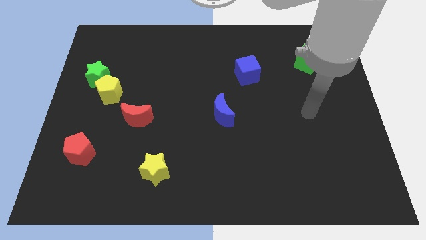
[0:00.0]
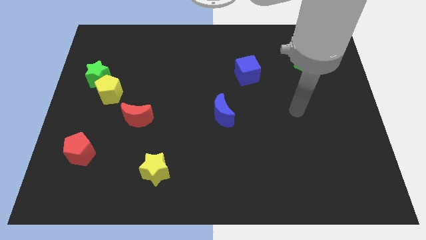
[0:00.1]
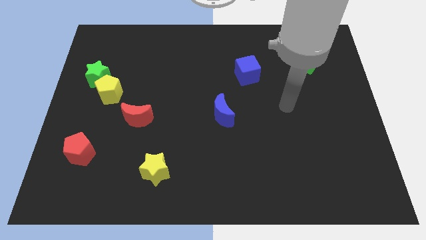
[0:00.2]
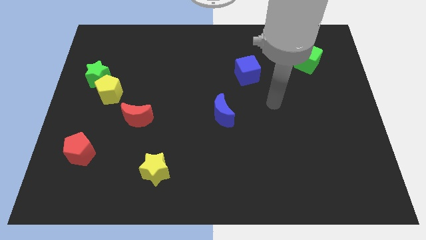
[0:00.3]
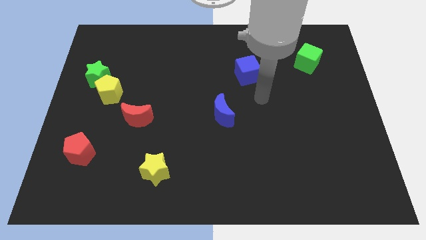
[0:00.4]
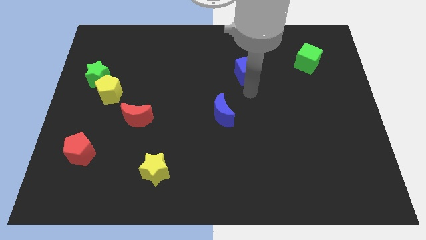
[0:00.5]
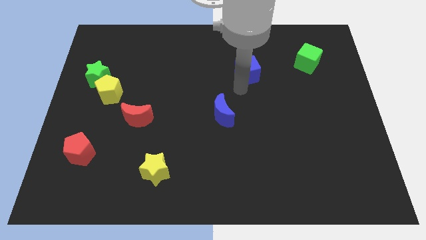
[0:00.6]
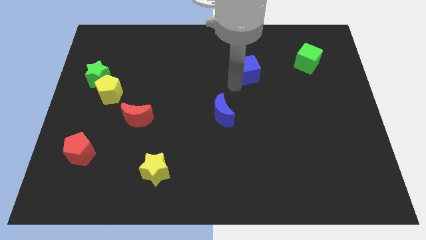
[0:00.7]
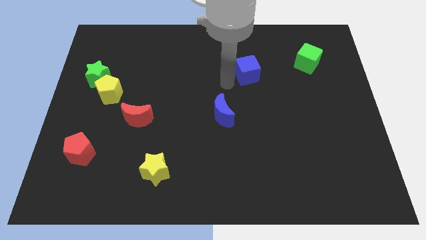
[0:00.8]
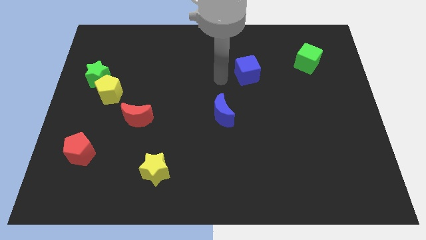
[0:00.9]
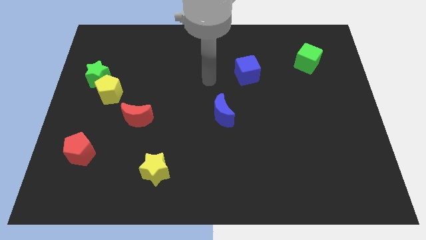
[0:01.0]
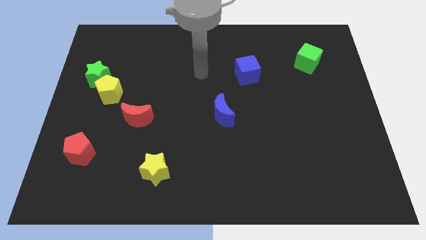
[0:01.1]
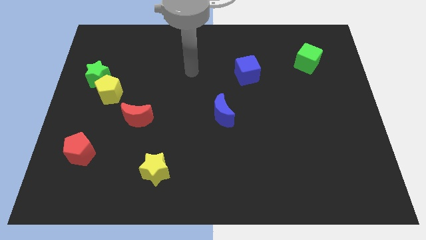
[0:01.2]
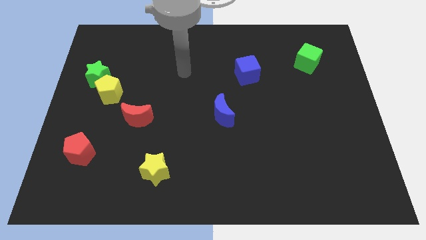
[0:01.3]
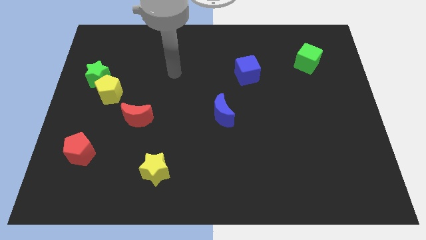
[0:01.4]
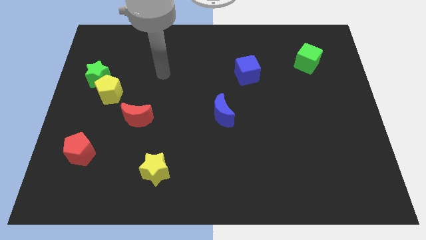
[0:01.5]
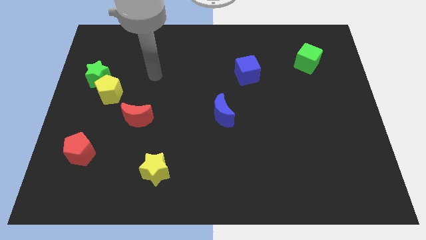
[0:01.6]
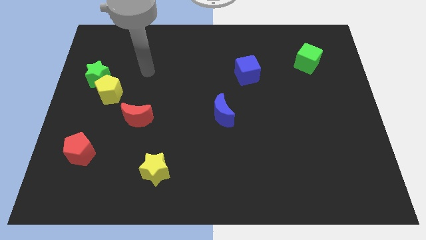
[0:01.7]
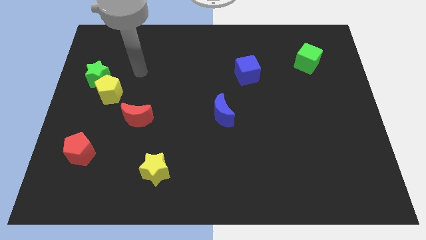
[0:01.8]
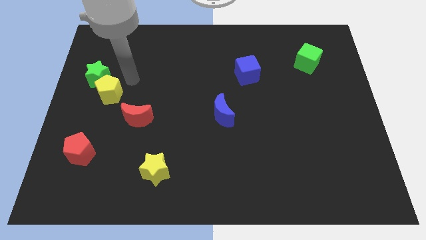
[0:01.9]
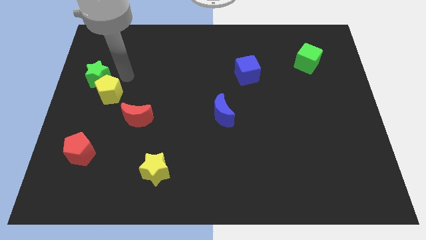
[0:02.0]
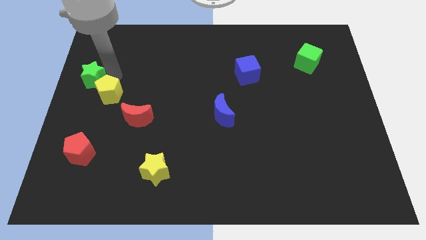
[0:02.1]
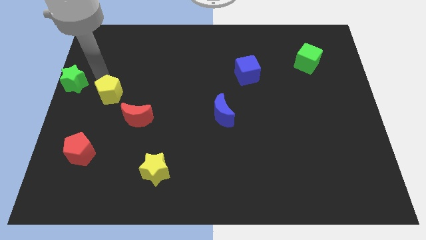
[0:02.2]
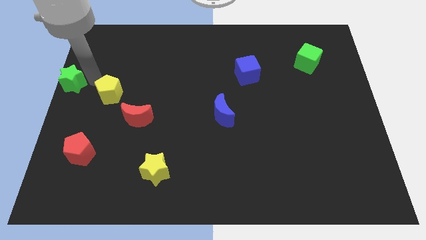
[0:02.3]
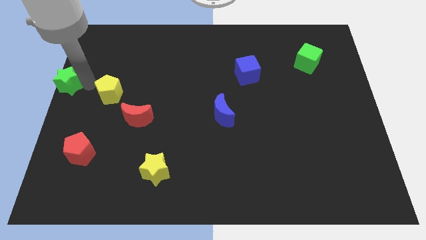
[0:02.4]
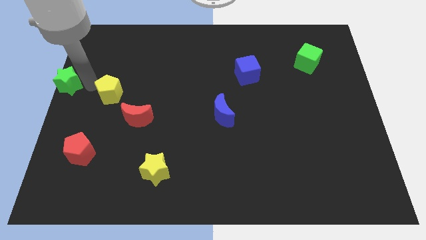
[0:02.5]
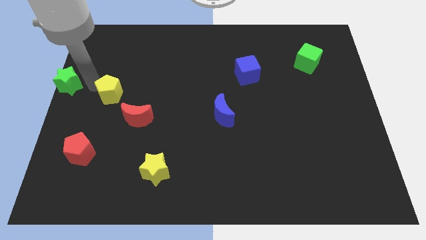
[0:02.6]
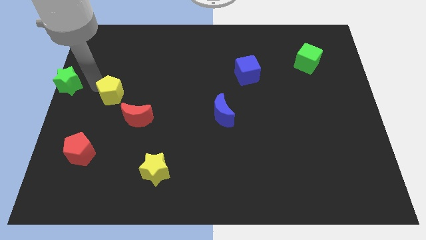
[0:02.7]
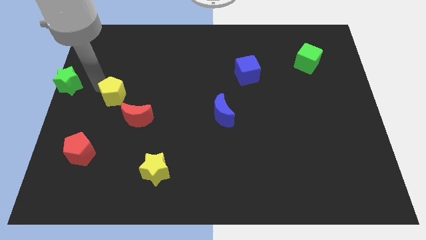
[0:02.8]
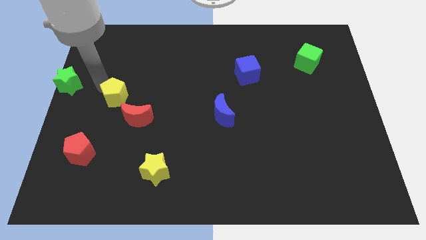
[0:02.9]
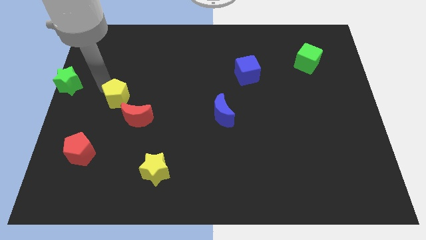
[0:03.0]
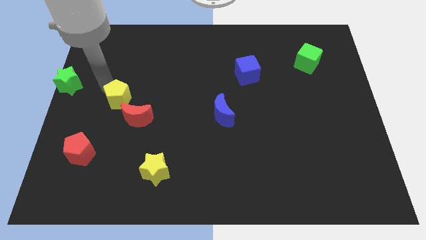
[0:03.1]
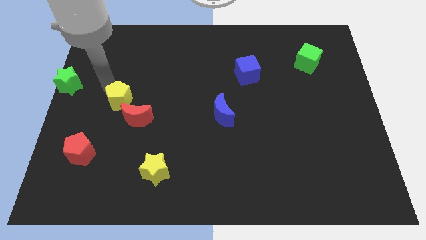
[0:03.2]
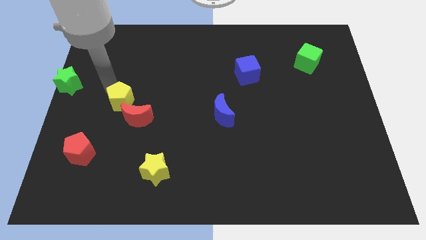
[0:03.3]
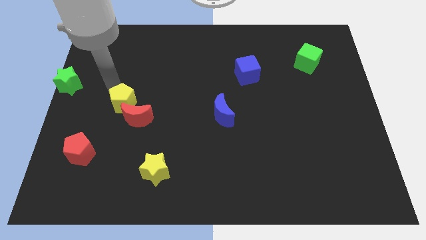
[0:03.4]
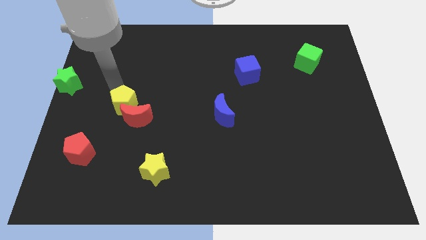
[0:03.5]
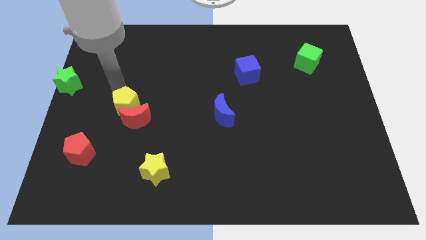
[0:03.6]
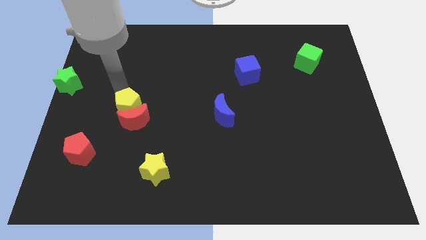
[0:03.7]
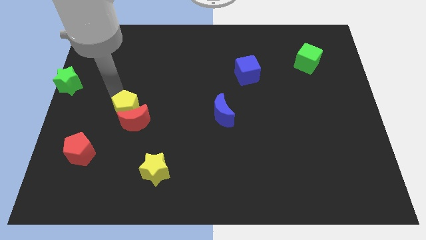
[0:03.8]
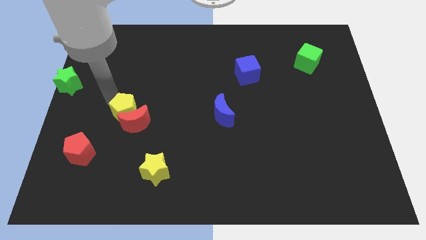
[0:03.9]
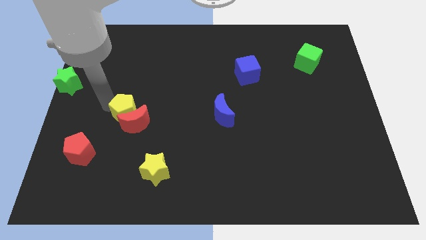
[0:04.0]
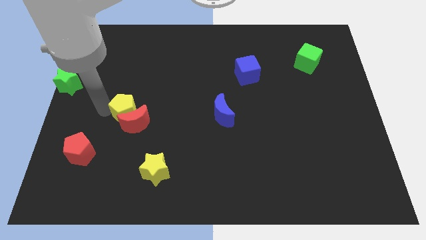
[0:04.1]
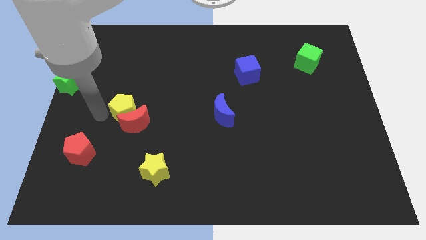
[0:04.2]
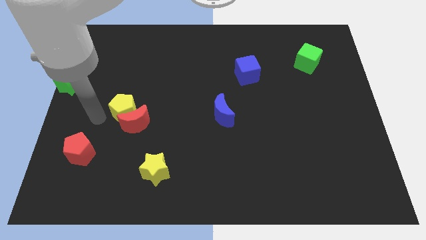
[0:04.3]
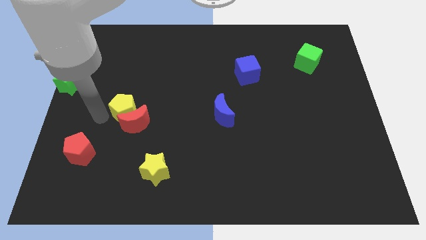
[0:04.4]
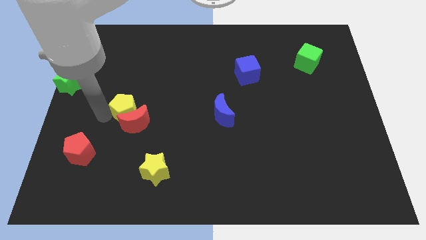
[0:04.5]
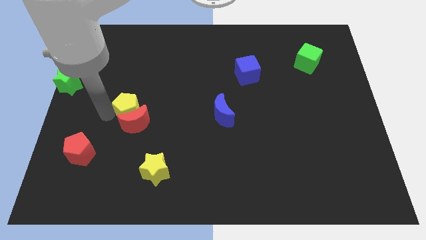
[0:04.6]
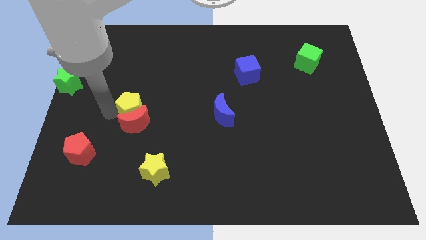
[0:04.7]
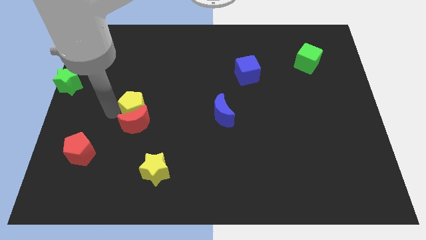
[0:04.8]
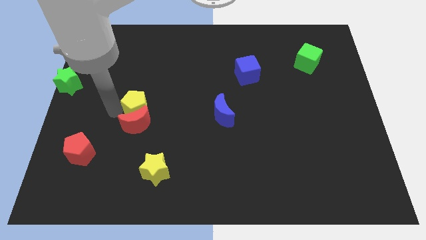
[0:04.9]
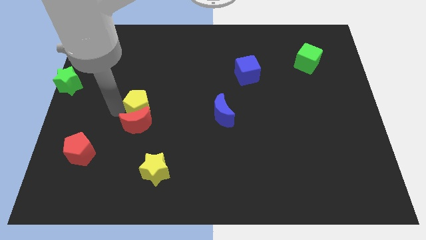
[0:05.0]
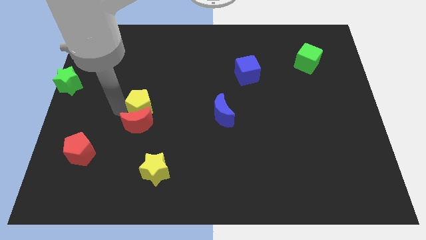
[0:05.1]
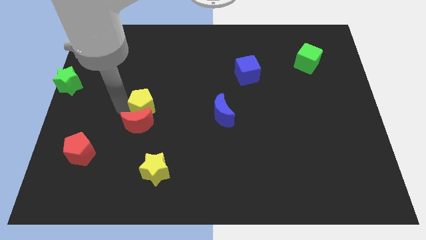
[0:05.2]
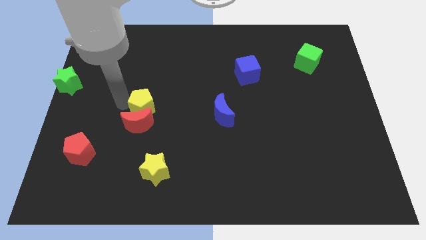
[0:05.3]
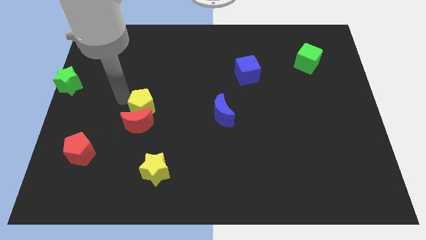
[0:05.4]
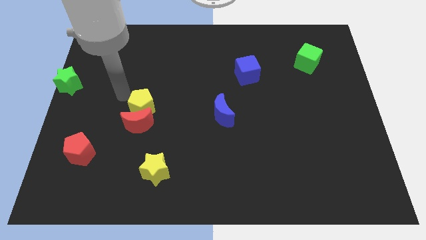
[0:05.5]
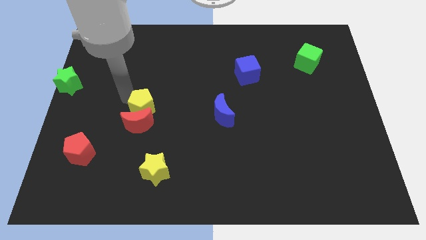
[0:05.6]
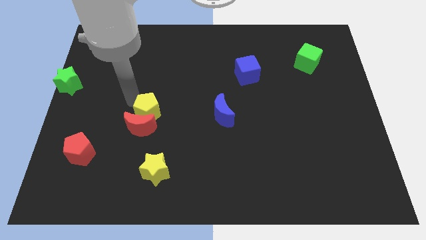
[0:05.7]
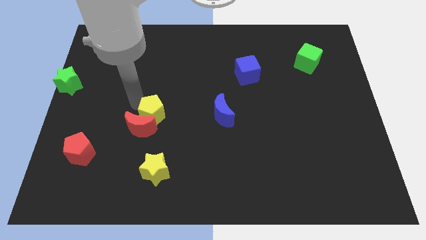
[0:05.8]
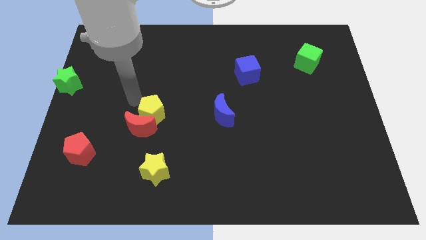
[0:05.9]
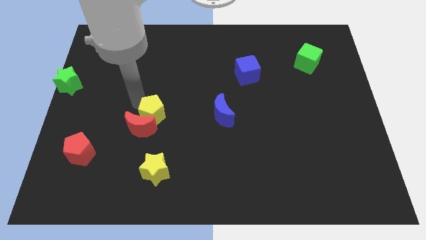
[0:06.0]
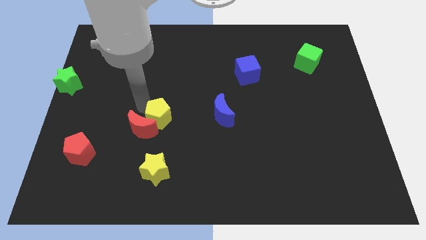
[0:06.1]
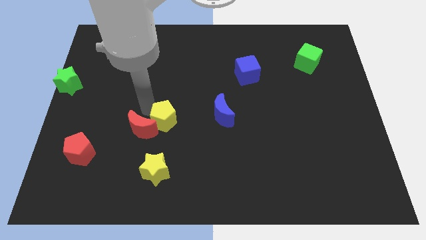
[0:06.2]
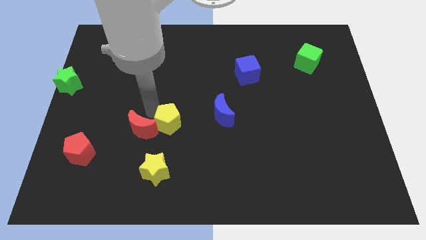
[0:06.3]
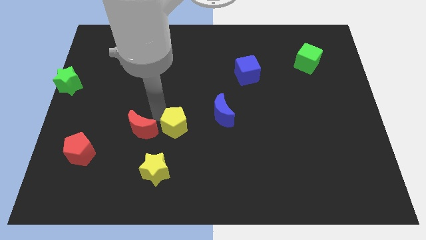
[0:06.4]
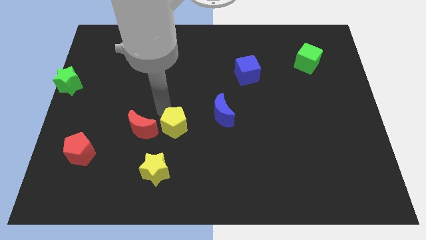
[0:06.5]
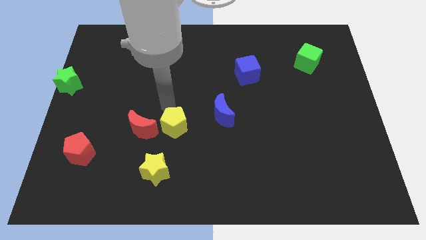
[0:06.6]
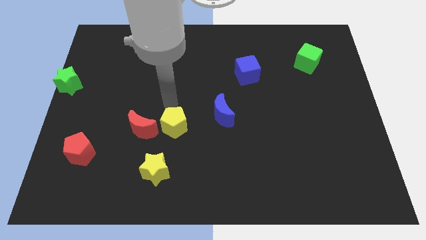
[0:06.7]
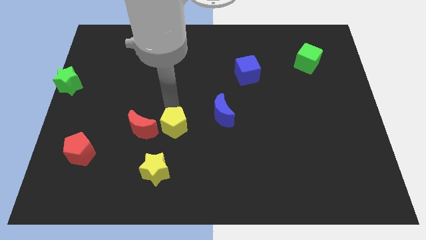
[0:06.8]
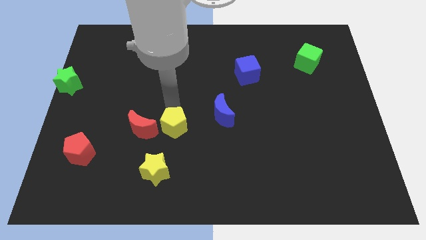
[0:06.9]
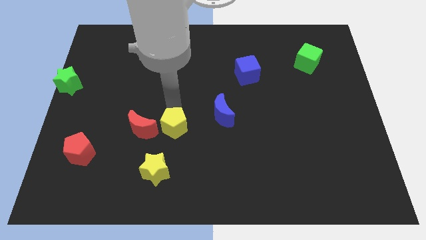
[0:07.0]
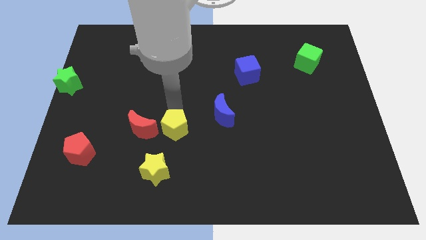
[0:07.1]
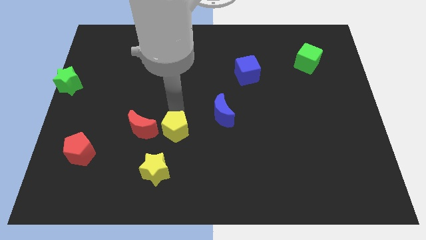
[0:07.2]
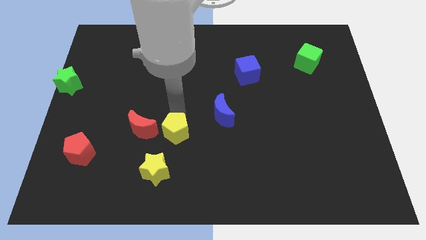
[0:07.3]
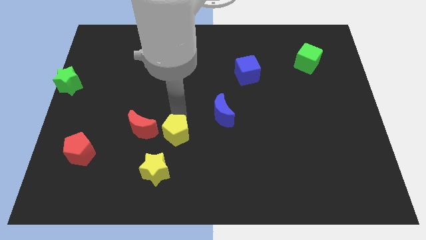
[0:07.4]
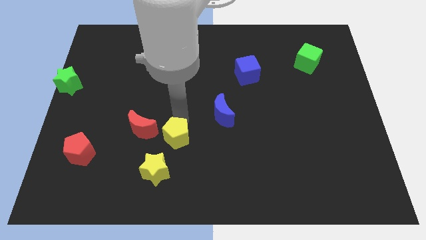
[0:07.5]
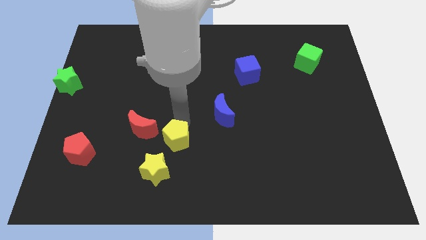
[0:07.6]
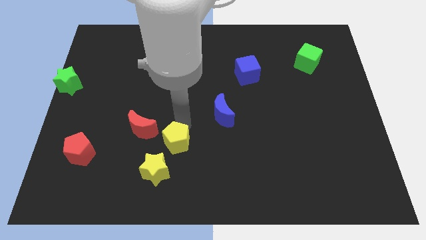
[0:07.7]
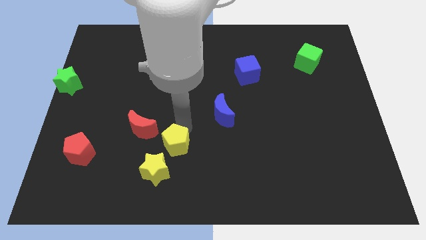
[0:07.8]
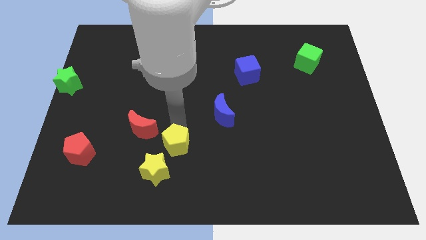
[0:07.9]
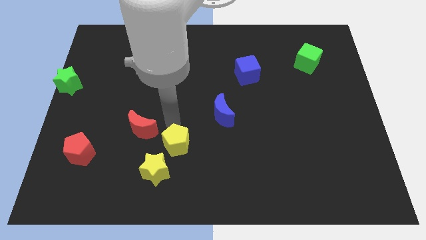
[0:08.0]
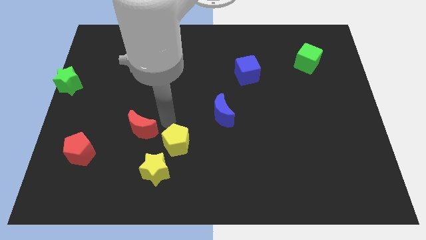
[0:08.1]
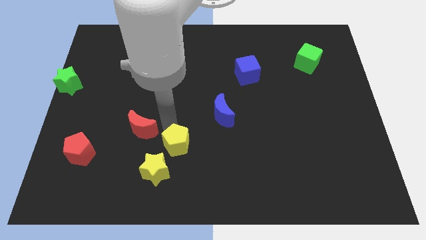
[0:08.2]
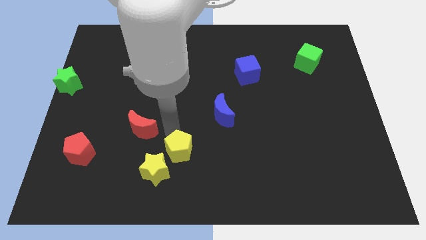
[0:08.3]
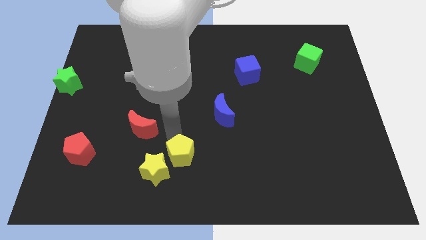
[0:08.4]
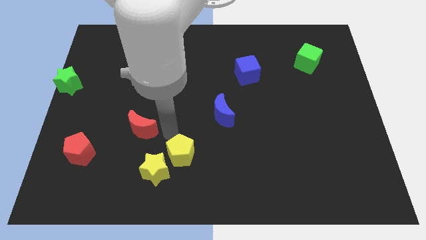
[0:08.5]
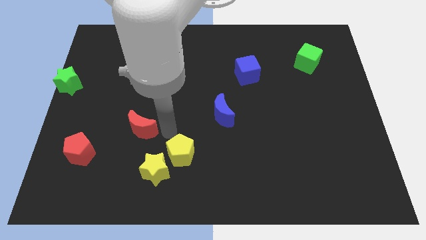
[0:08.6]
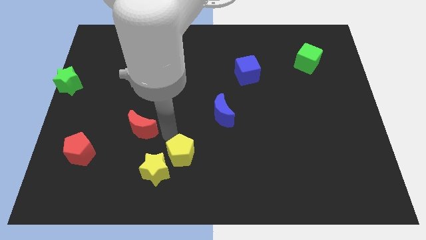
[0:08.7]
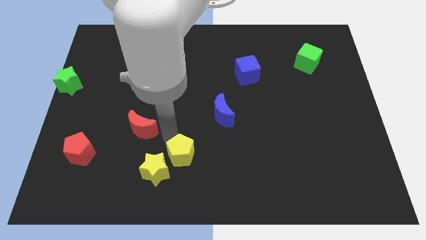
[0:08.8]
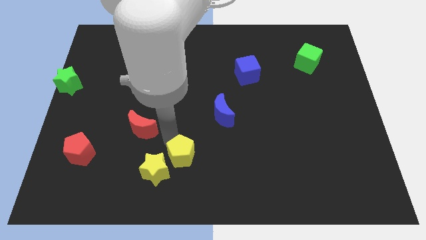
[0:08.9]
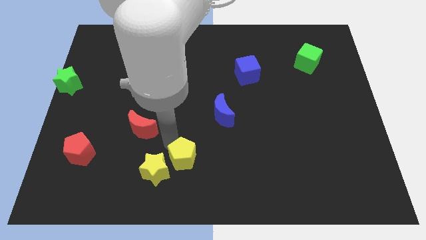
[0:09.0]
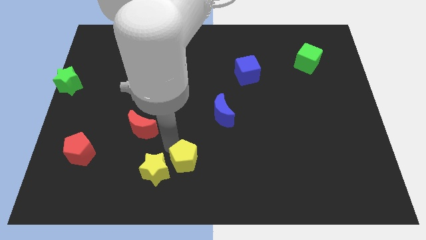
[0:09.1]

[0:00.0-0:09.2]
slide the yellow pentagon to the bottom side
